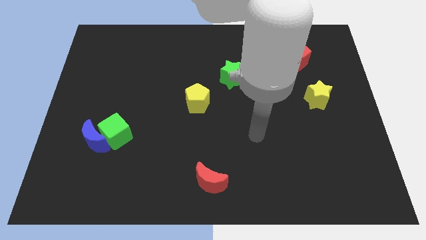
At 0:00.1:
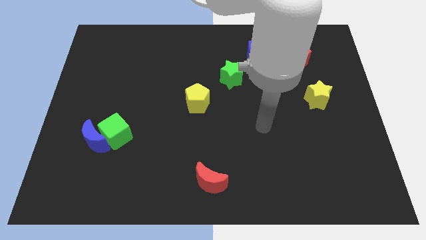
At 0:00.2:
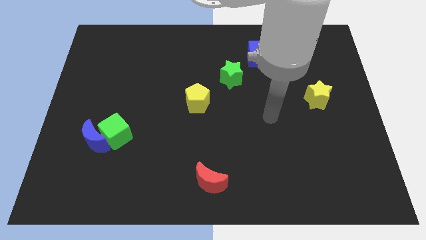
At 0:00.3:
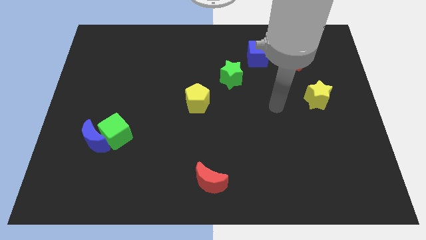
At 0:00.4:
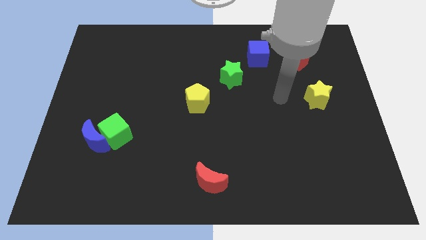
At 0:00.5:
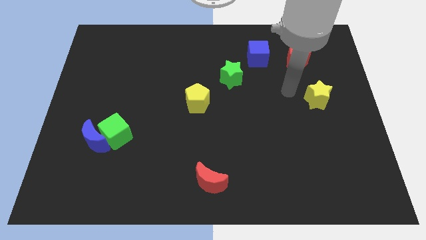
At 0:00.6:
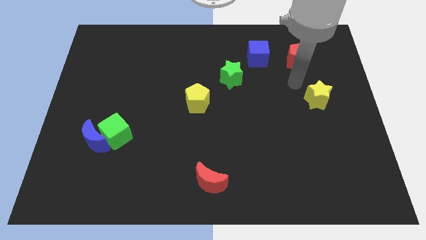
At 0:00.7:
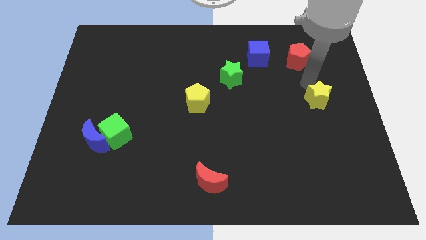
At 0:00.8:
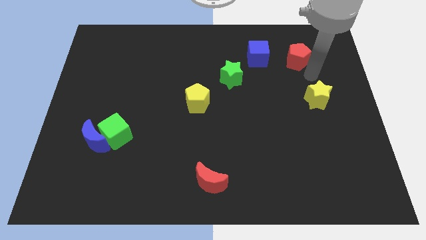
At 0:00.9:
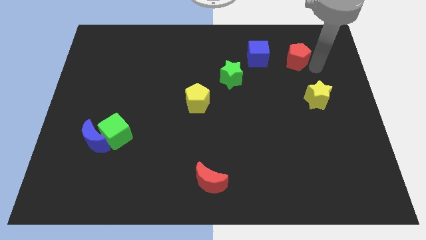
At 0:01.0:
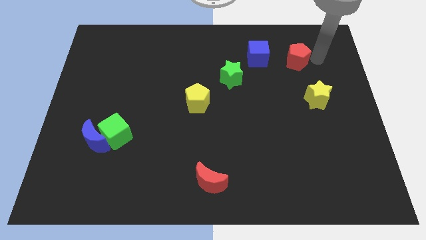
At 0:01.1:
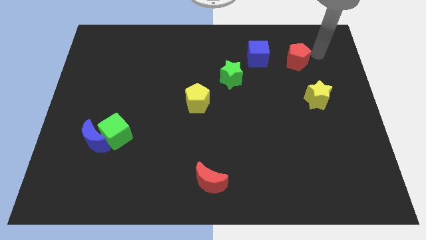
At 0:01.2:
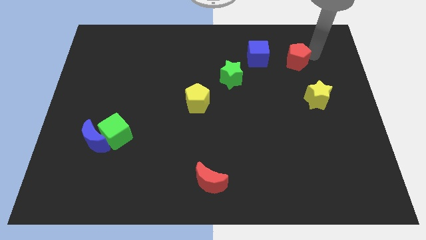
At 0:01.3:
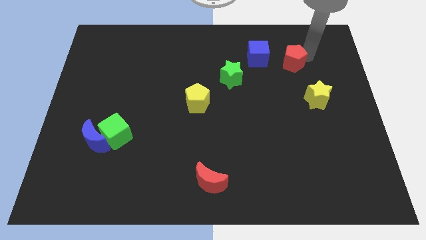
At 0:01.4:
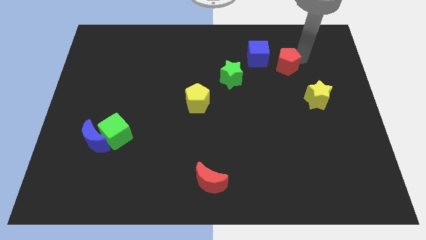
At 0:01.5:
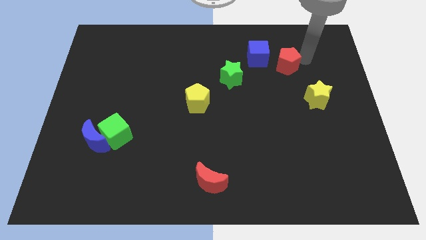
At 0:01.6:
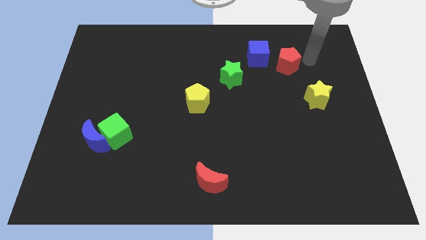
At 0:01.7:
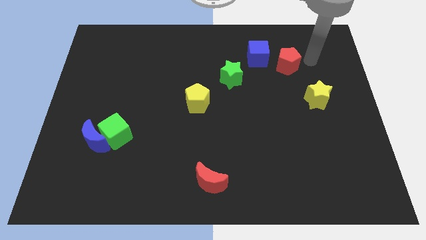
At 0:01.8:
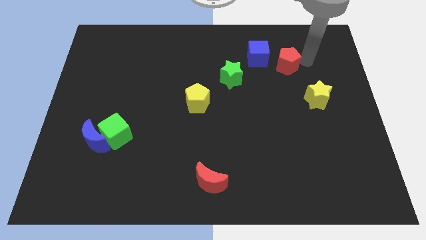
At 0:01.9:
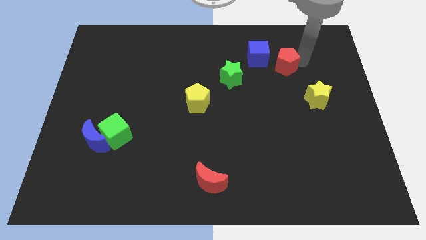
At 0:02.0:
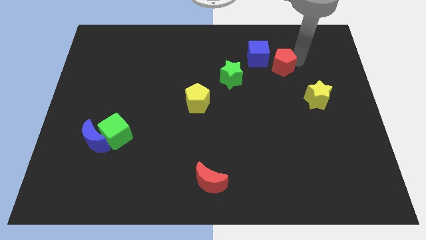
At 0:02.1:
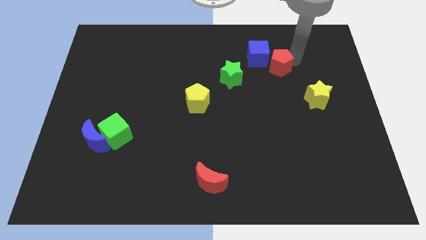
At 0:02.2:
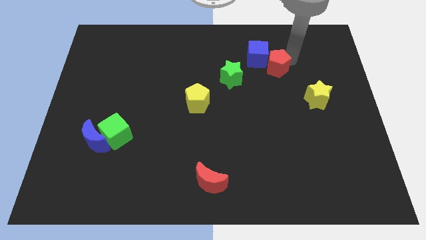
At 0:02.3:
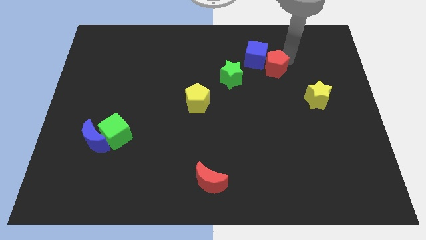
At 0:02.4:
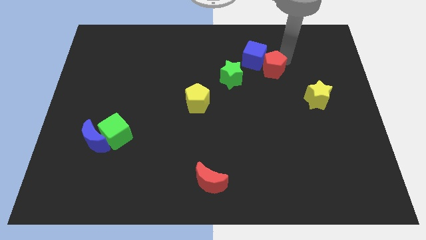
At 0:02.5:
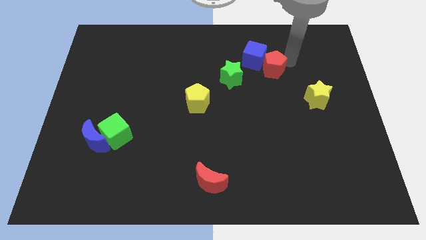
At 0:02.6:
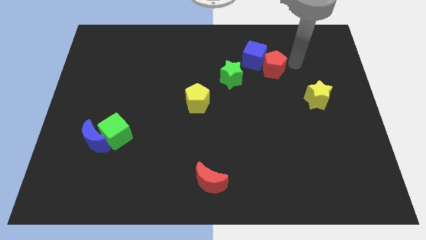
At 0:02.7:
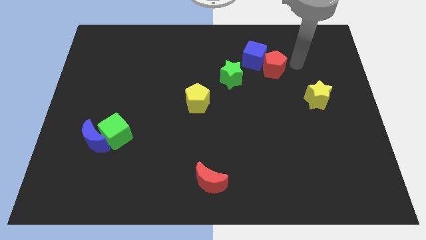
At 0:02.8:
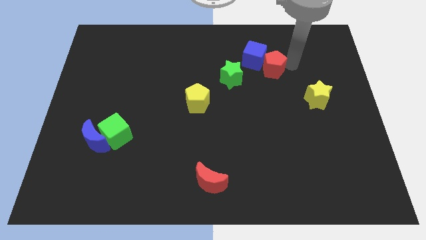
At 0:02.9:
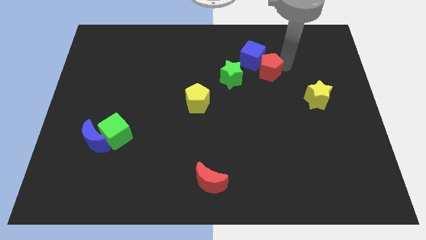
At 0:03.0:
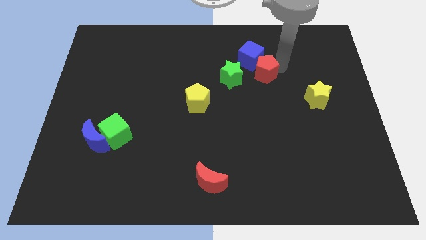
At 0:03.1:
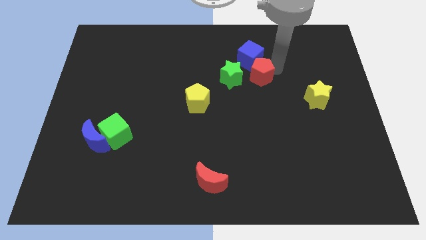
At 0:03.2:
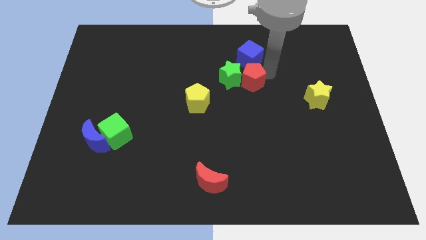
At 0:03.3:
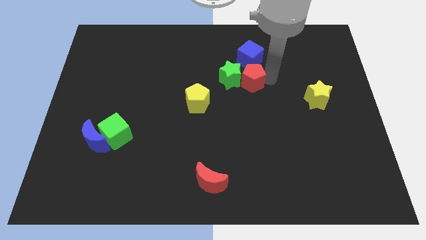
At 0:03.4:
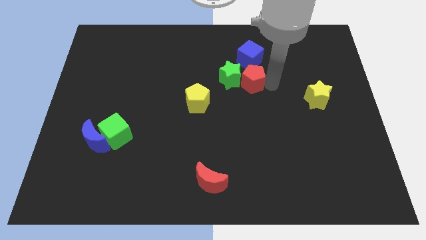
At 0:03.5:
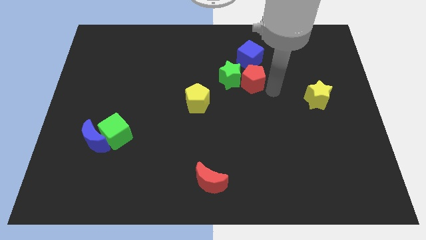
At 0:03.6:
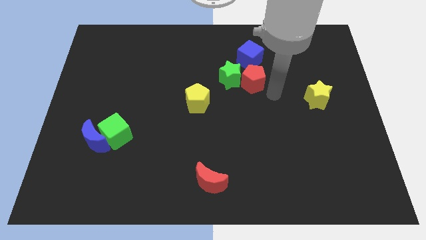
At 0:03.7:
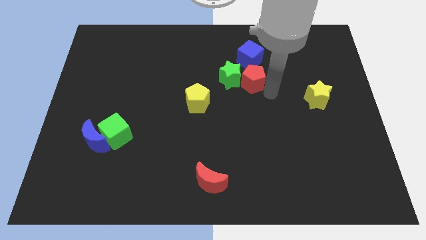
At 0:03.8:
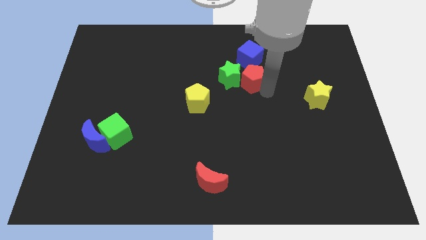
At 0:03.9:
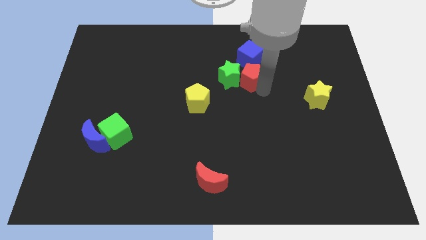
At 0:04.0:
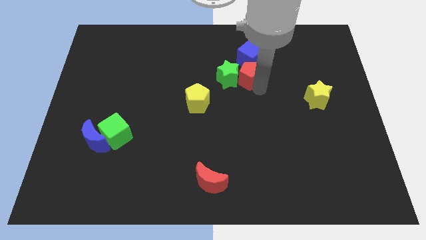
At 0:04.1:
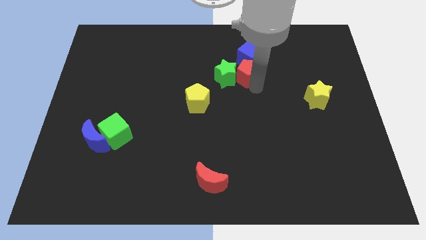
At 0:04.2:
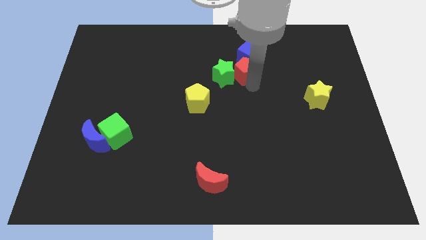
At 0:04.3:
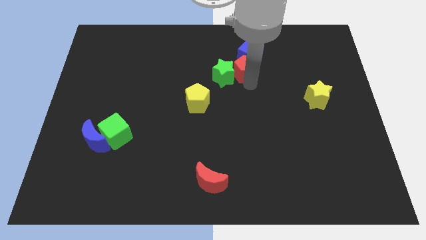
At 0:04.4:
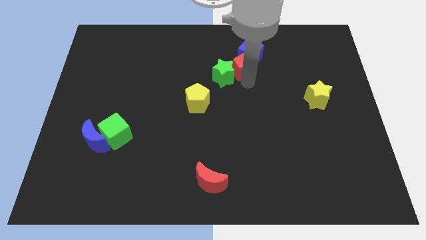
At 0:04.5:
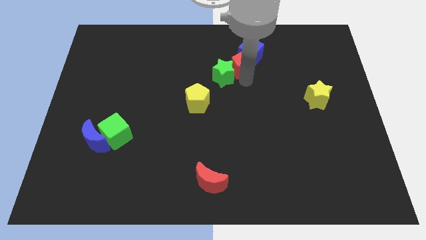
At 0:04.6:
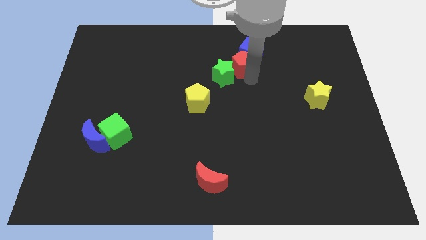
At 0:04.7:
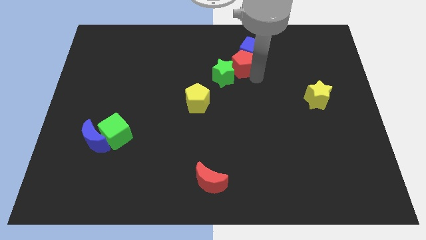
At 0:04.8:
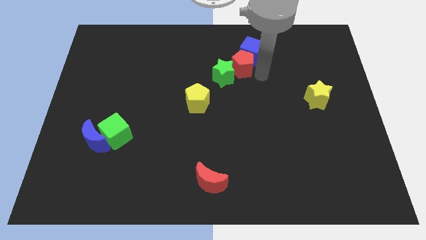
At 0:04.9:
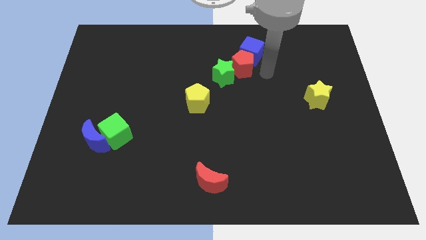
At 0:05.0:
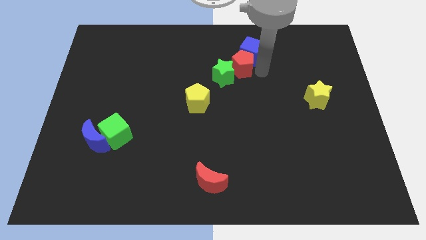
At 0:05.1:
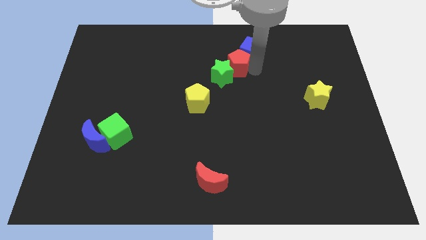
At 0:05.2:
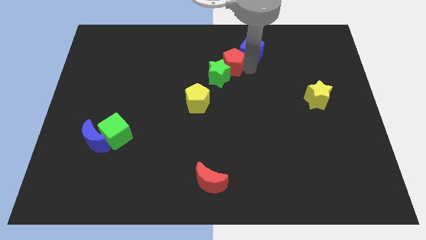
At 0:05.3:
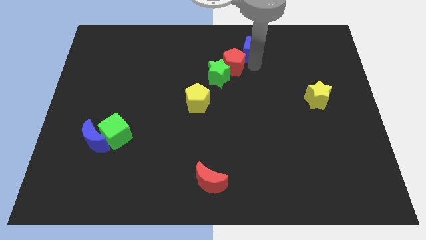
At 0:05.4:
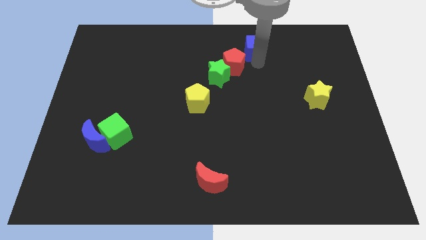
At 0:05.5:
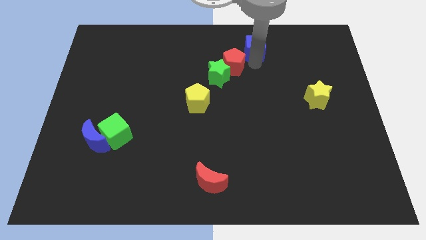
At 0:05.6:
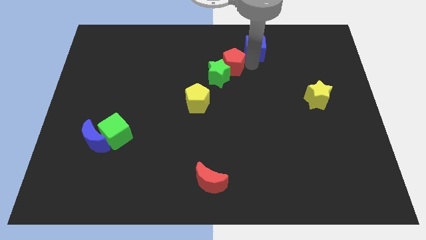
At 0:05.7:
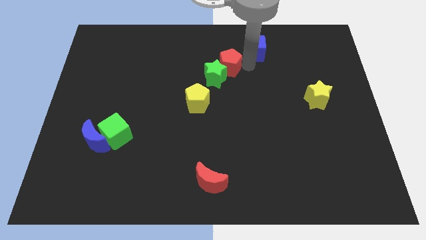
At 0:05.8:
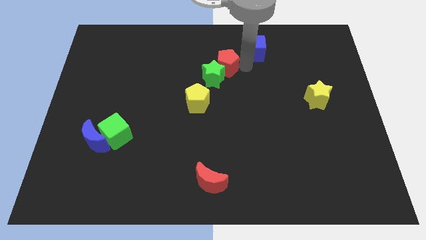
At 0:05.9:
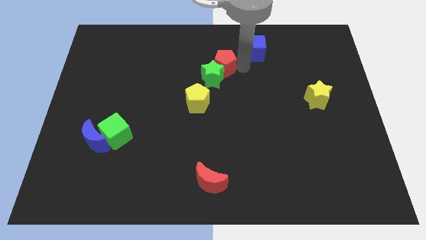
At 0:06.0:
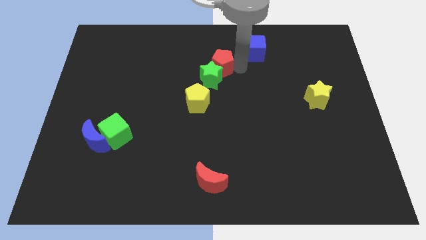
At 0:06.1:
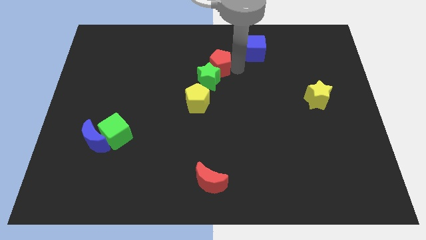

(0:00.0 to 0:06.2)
move the red pentagon to the left

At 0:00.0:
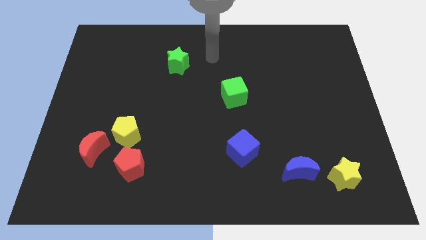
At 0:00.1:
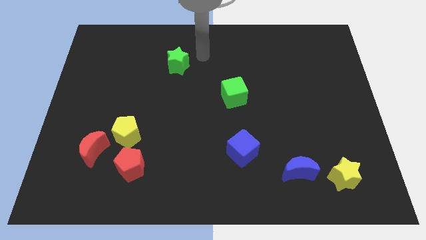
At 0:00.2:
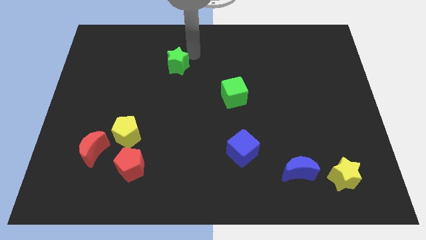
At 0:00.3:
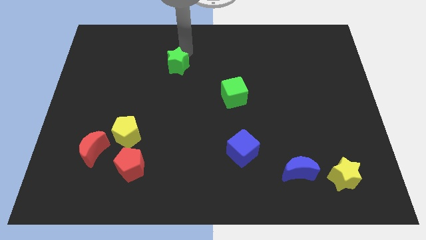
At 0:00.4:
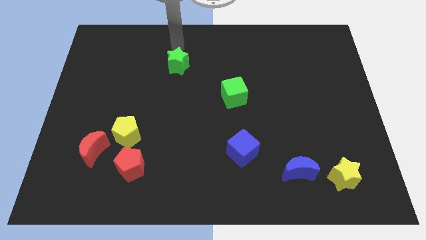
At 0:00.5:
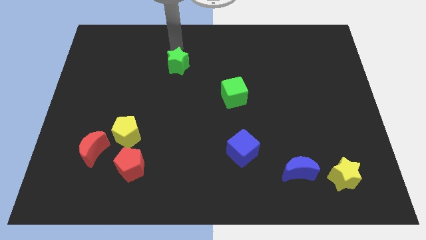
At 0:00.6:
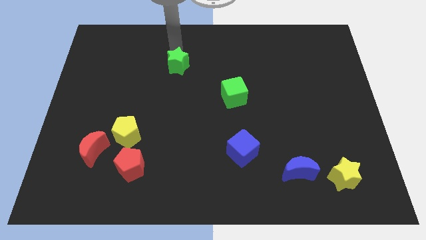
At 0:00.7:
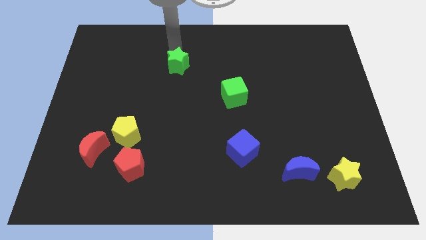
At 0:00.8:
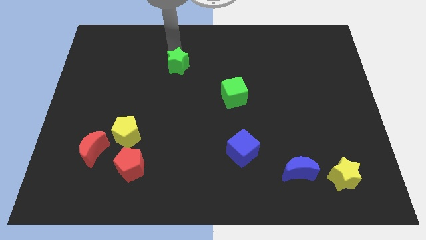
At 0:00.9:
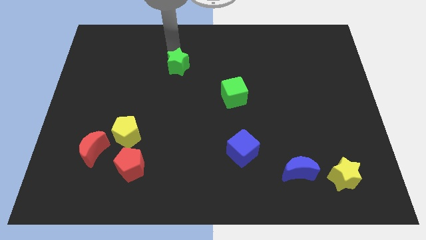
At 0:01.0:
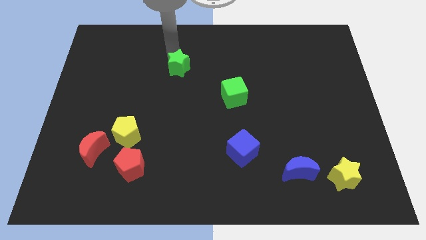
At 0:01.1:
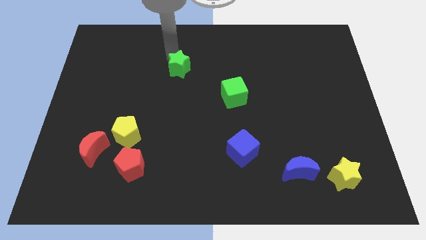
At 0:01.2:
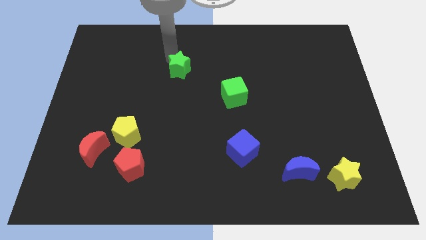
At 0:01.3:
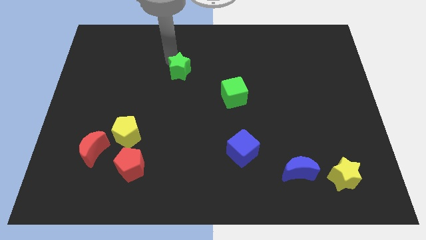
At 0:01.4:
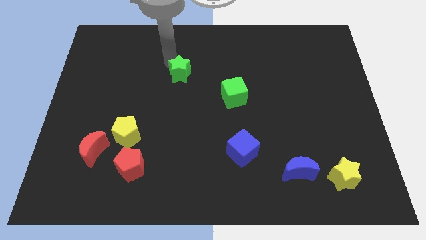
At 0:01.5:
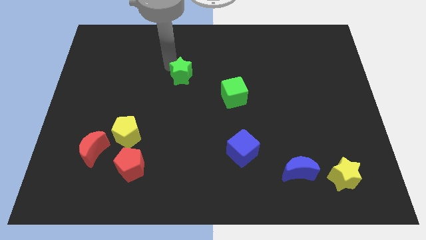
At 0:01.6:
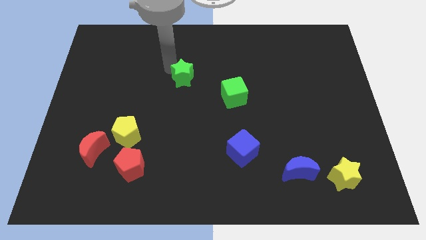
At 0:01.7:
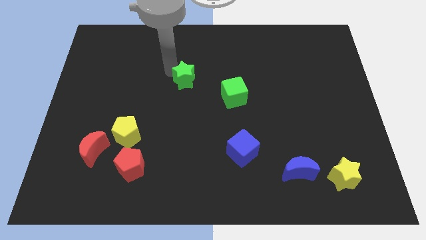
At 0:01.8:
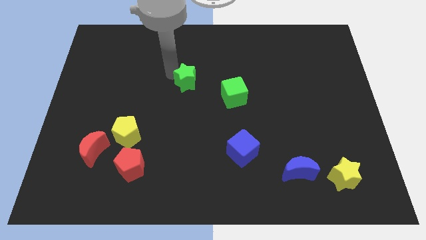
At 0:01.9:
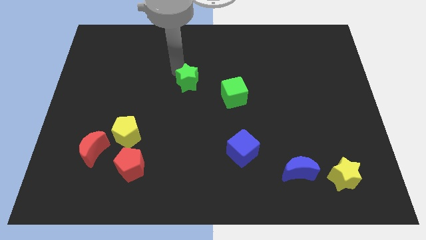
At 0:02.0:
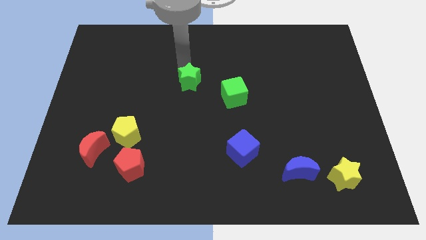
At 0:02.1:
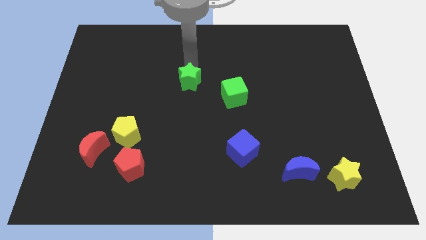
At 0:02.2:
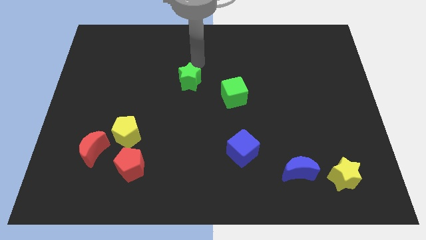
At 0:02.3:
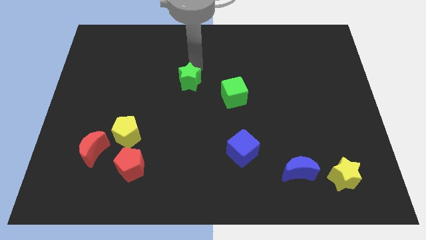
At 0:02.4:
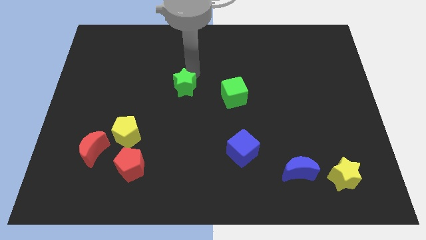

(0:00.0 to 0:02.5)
slightly move the green star down
